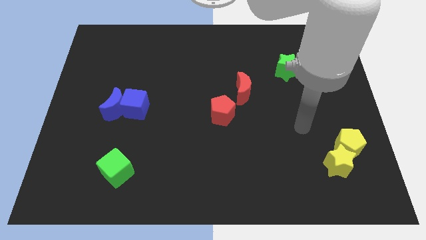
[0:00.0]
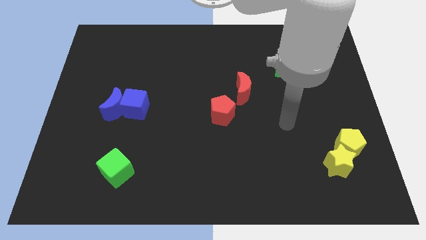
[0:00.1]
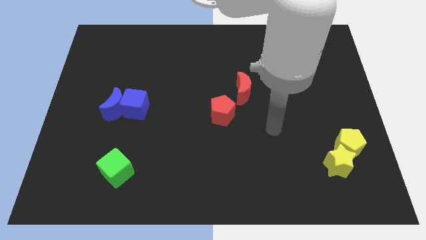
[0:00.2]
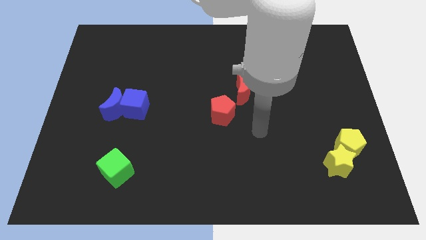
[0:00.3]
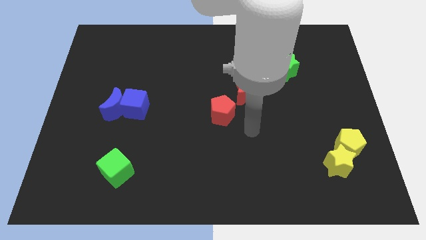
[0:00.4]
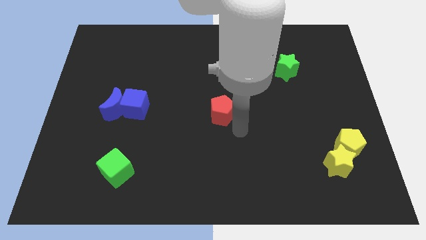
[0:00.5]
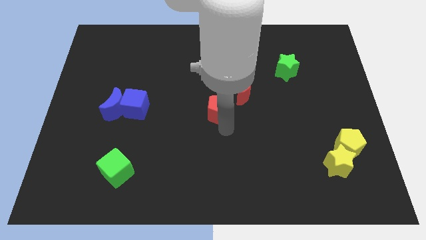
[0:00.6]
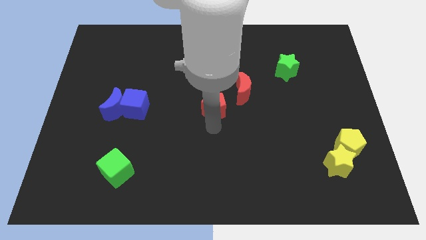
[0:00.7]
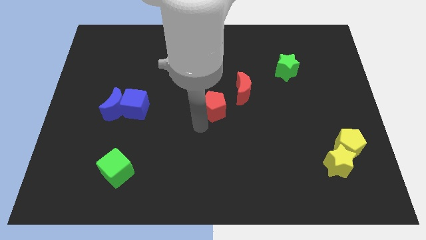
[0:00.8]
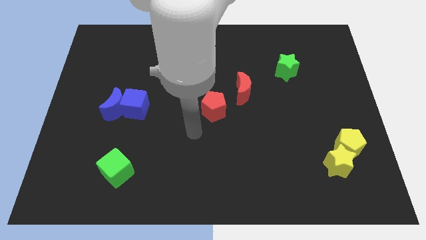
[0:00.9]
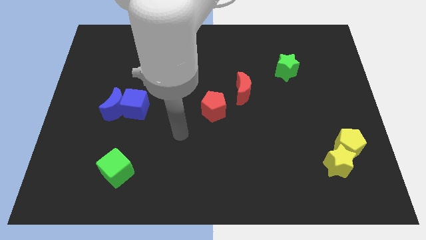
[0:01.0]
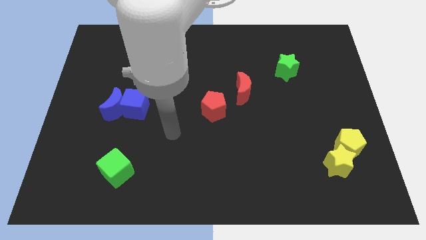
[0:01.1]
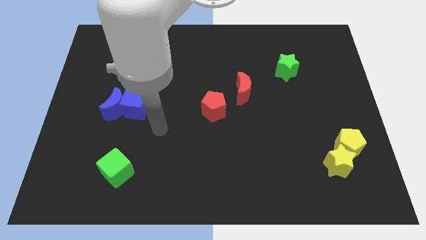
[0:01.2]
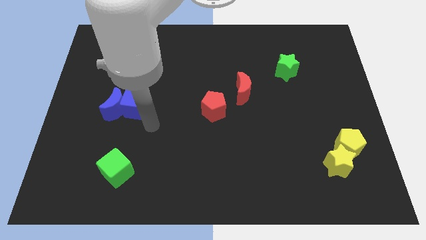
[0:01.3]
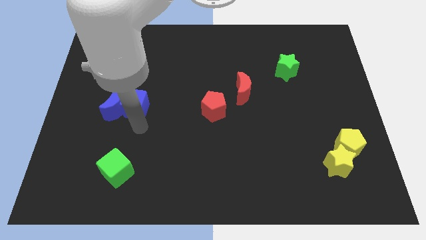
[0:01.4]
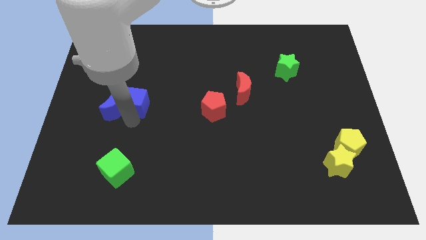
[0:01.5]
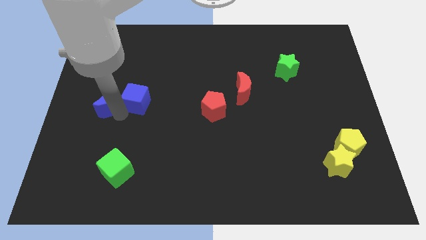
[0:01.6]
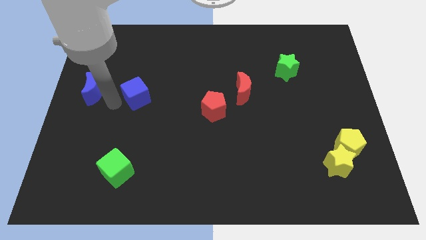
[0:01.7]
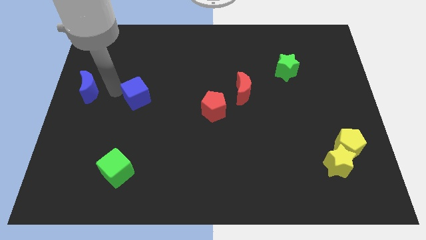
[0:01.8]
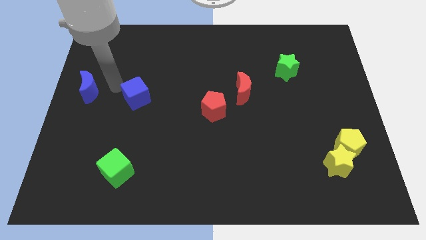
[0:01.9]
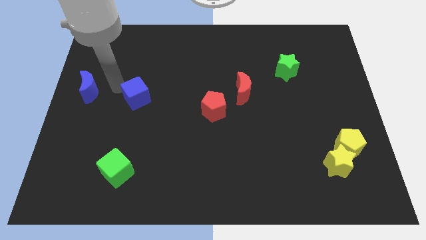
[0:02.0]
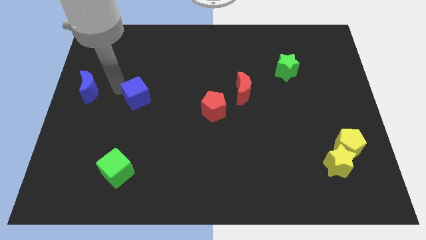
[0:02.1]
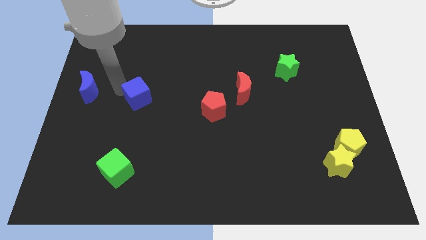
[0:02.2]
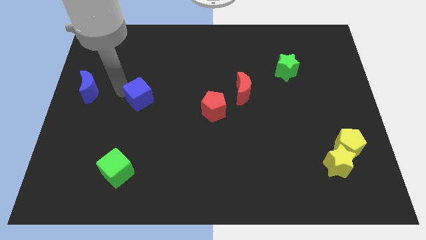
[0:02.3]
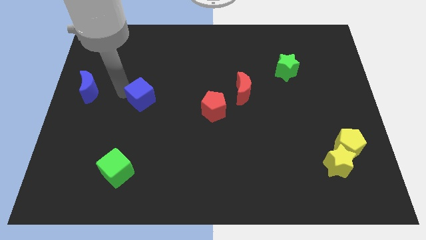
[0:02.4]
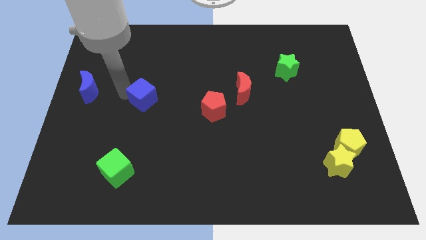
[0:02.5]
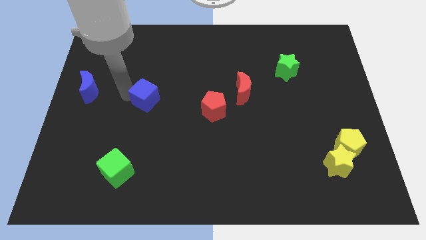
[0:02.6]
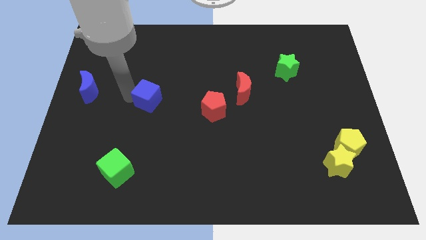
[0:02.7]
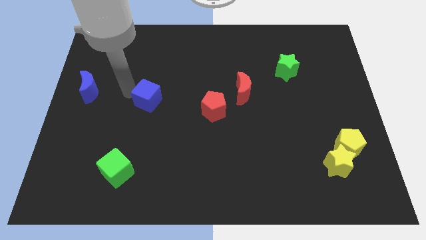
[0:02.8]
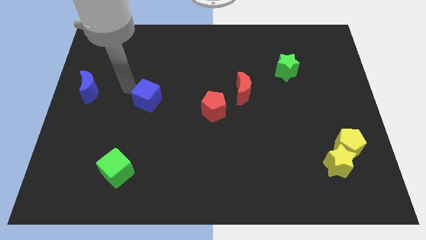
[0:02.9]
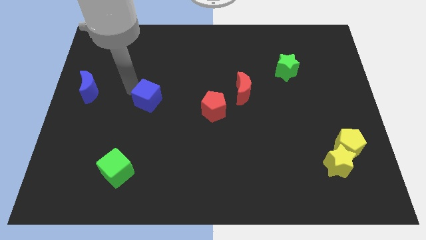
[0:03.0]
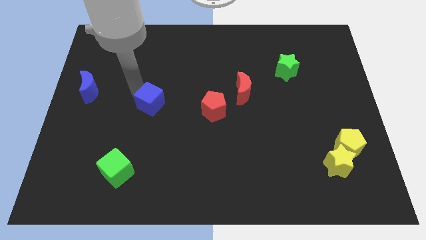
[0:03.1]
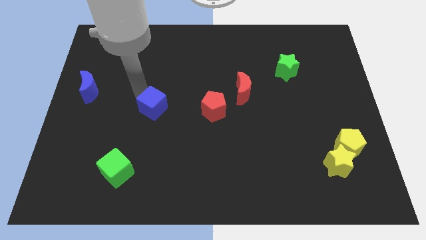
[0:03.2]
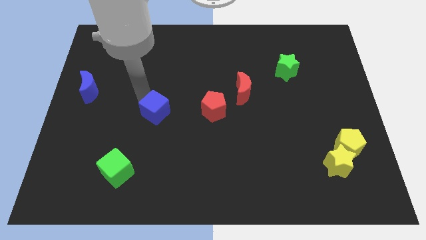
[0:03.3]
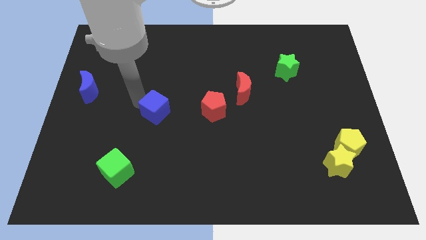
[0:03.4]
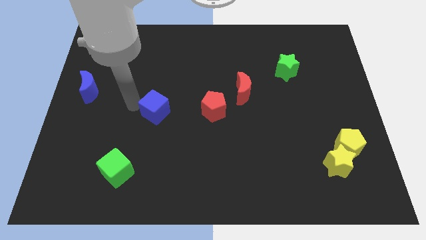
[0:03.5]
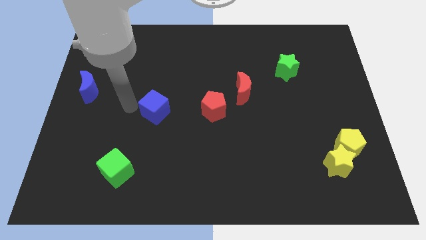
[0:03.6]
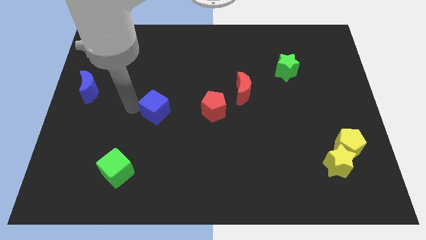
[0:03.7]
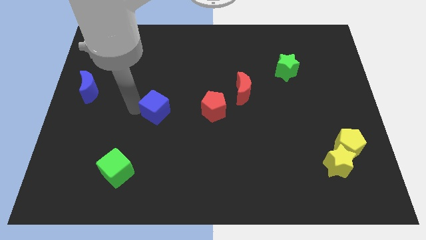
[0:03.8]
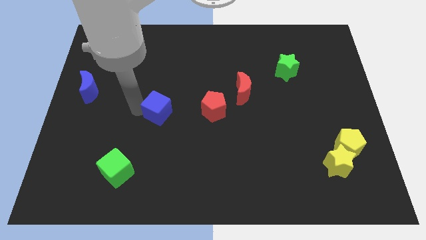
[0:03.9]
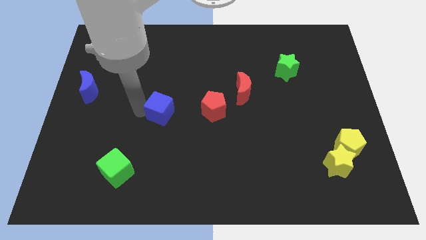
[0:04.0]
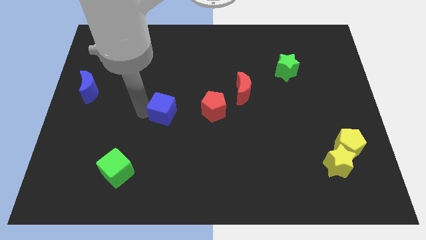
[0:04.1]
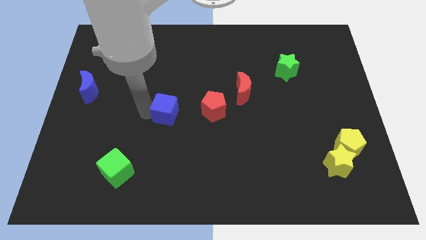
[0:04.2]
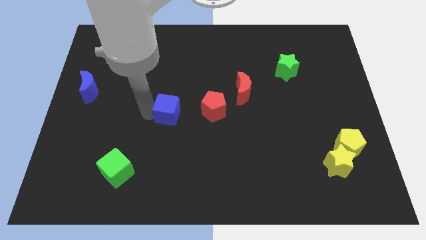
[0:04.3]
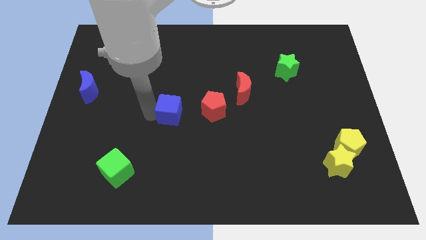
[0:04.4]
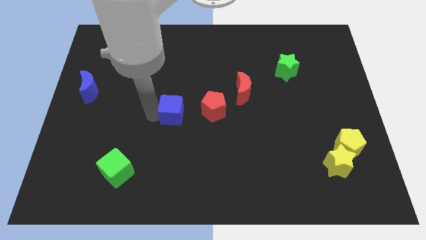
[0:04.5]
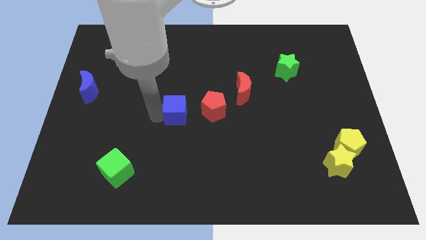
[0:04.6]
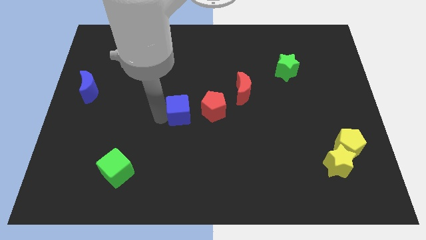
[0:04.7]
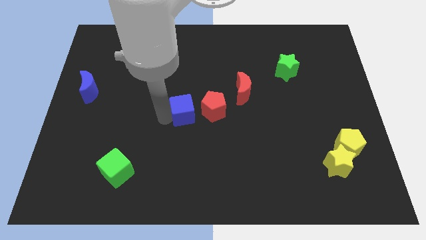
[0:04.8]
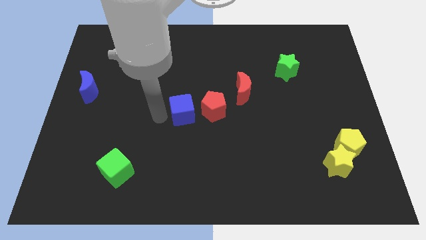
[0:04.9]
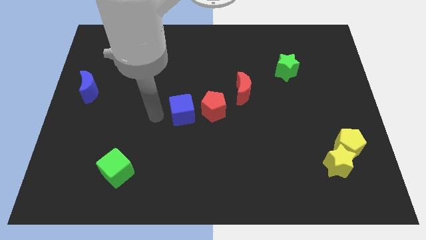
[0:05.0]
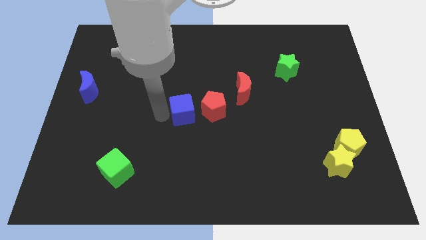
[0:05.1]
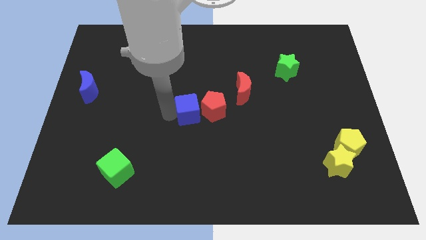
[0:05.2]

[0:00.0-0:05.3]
put the blue cube next to the red pentagon

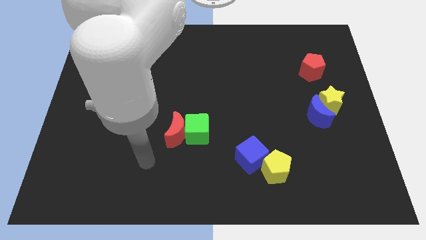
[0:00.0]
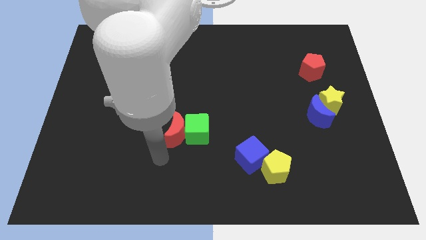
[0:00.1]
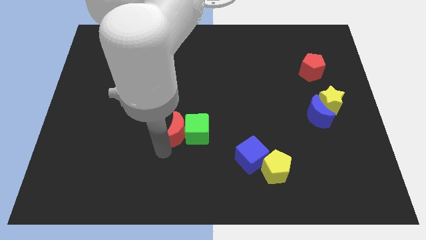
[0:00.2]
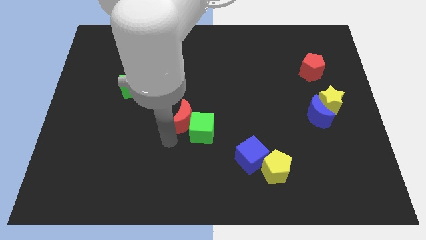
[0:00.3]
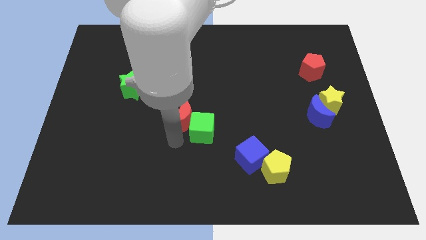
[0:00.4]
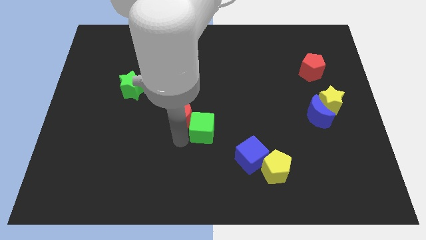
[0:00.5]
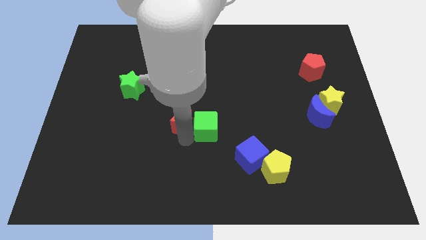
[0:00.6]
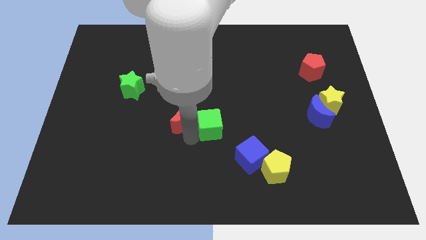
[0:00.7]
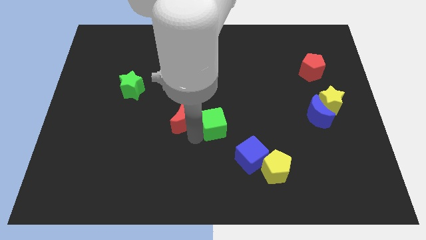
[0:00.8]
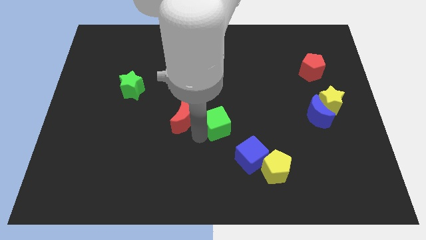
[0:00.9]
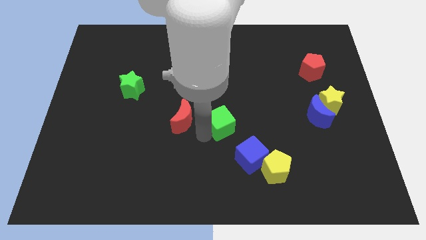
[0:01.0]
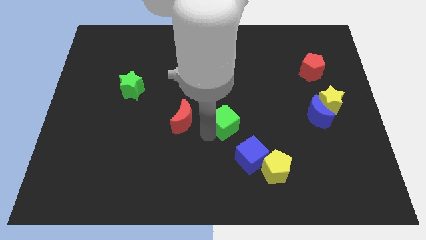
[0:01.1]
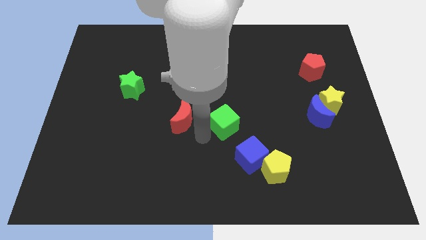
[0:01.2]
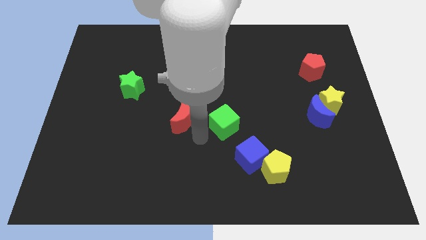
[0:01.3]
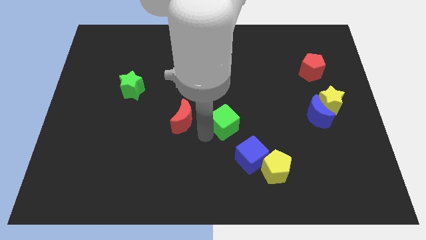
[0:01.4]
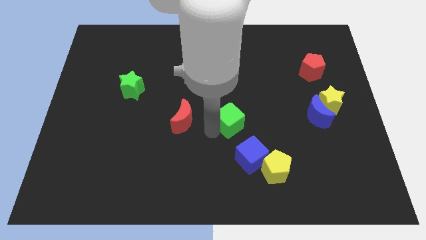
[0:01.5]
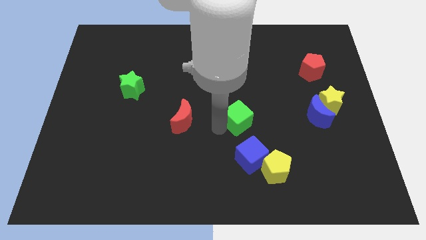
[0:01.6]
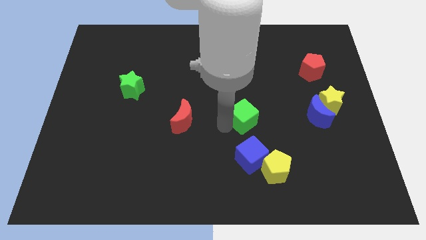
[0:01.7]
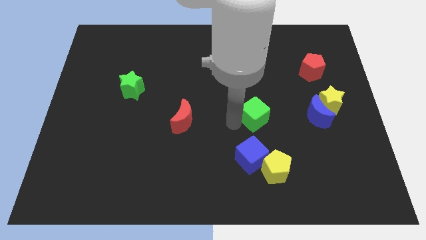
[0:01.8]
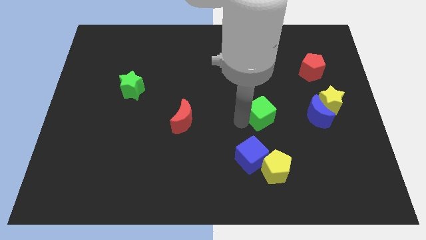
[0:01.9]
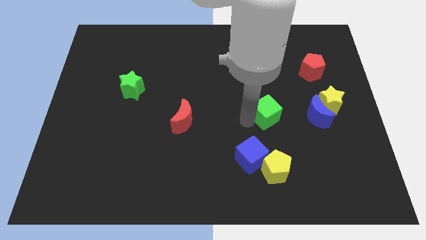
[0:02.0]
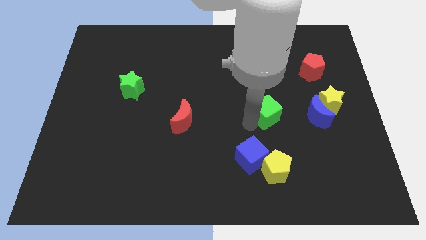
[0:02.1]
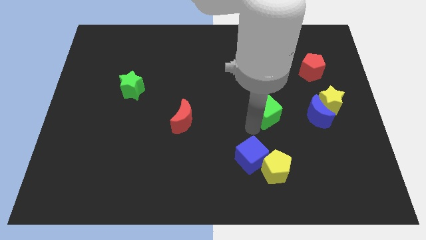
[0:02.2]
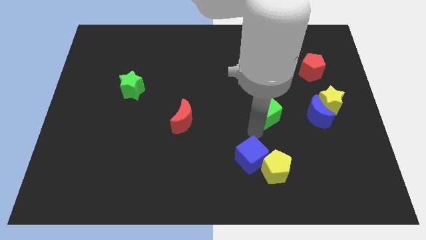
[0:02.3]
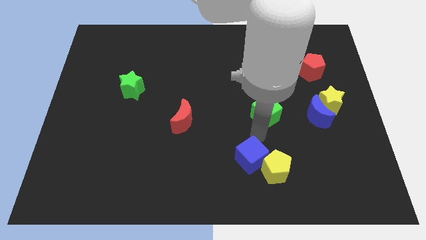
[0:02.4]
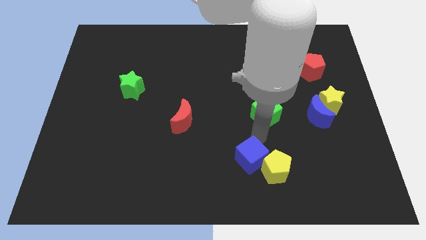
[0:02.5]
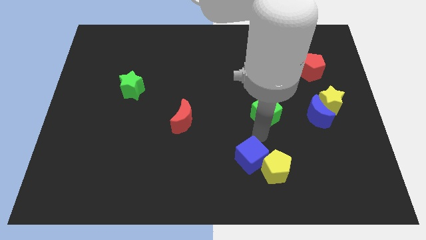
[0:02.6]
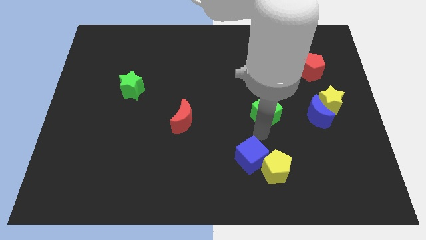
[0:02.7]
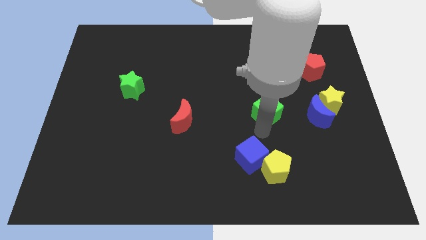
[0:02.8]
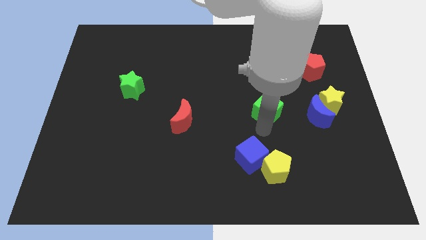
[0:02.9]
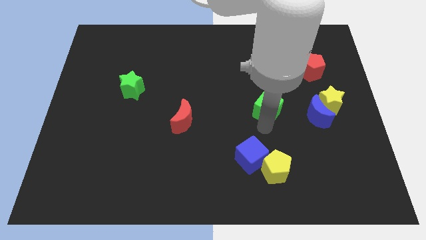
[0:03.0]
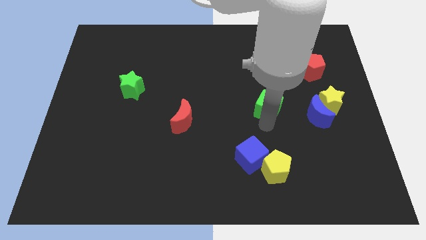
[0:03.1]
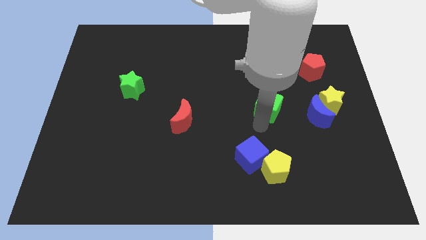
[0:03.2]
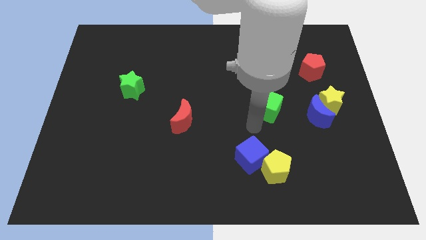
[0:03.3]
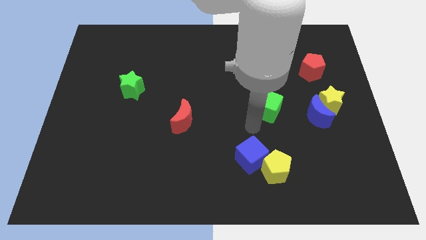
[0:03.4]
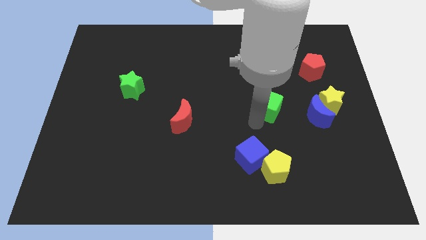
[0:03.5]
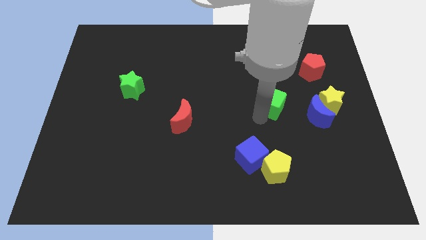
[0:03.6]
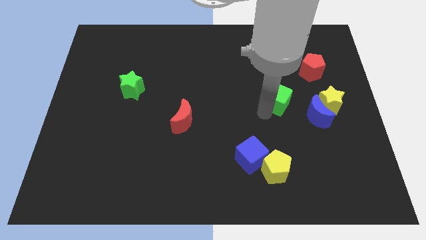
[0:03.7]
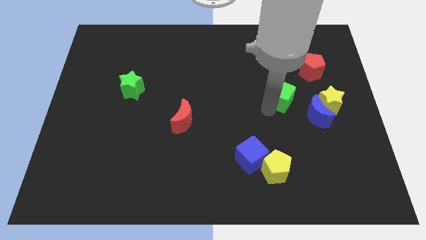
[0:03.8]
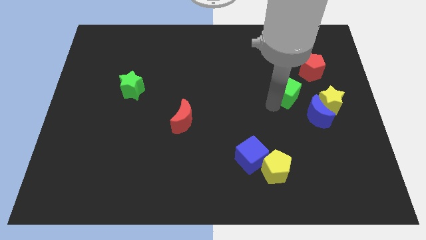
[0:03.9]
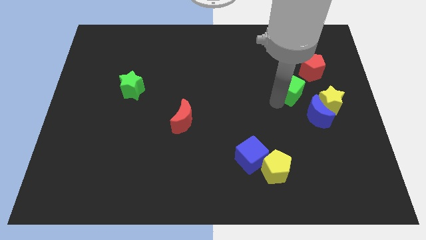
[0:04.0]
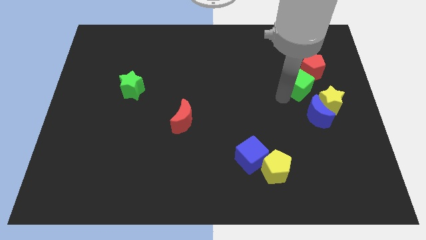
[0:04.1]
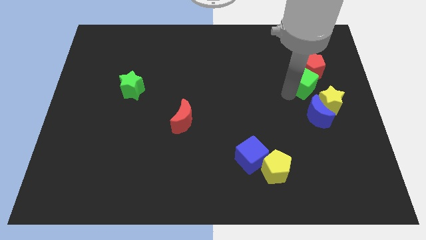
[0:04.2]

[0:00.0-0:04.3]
slide the green cube towards the red pentagon
